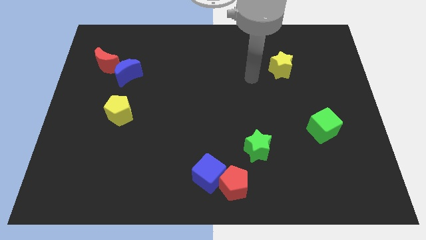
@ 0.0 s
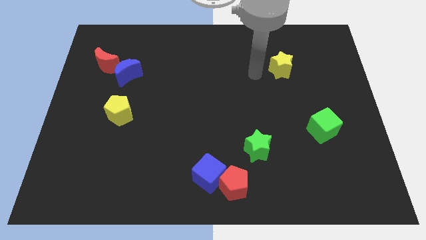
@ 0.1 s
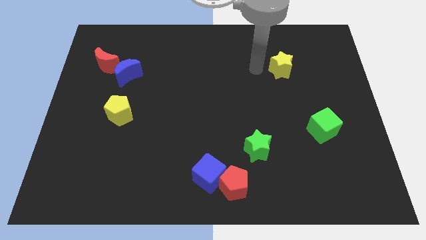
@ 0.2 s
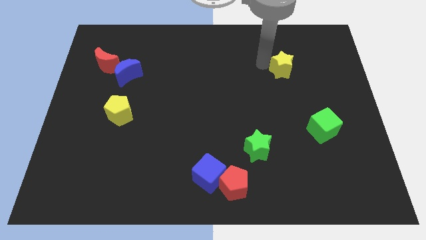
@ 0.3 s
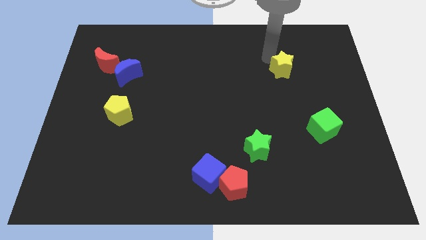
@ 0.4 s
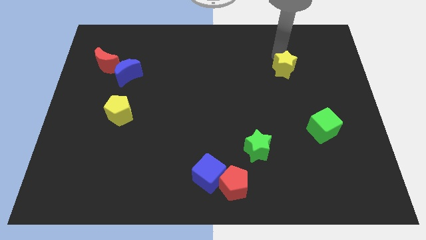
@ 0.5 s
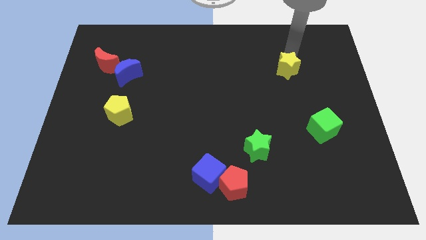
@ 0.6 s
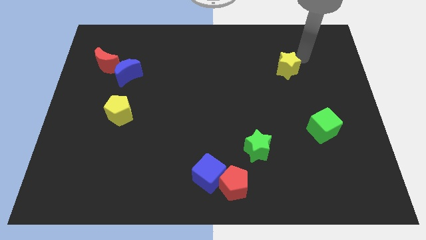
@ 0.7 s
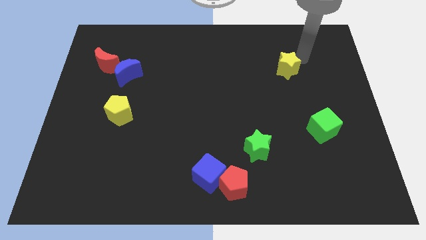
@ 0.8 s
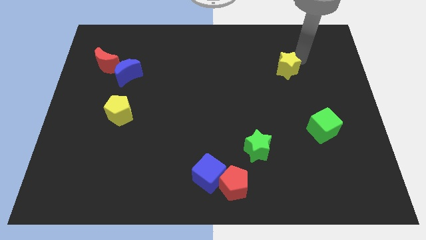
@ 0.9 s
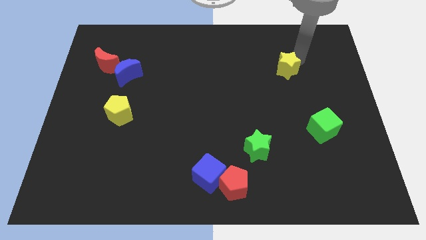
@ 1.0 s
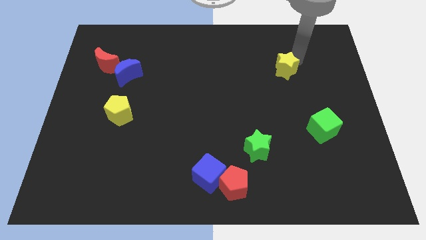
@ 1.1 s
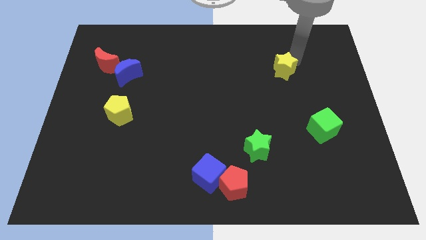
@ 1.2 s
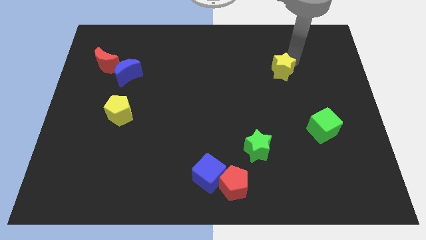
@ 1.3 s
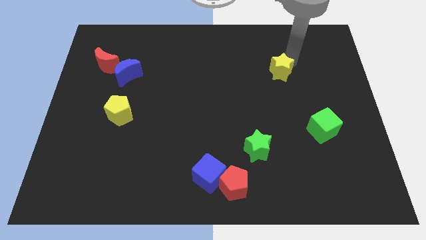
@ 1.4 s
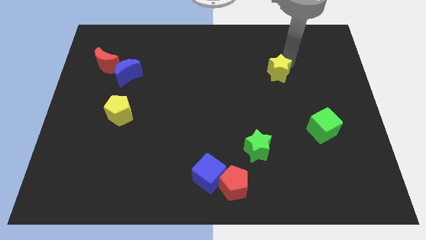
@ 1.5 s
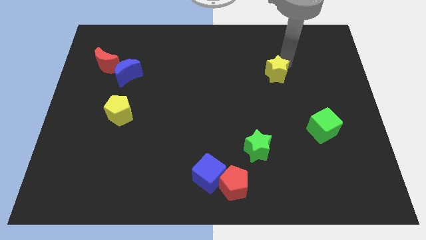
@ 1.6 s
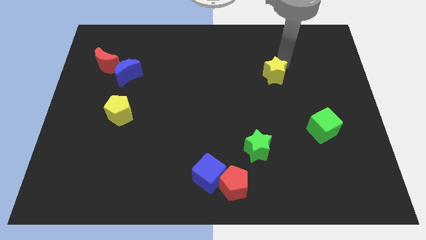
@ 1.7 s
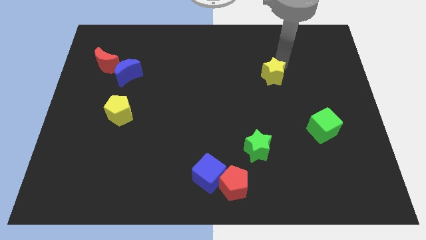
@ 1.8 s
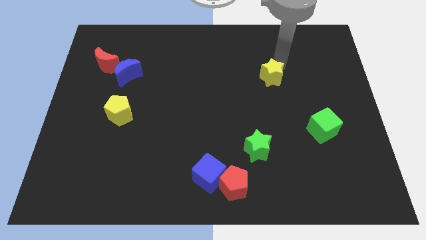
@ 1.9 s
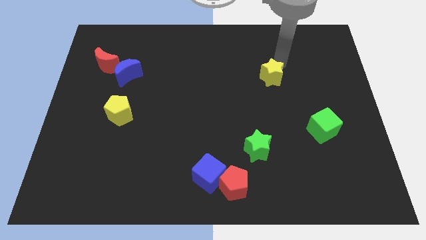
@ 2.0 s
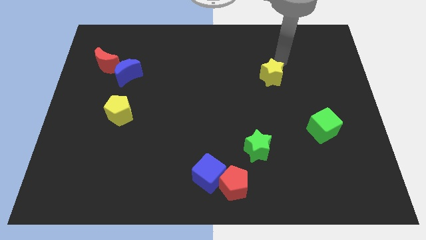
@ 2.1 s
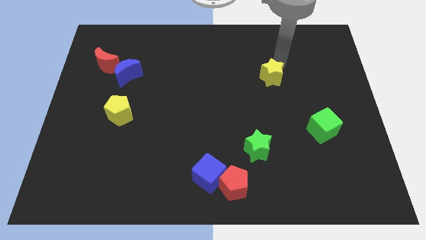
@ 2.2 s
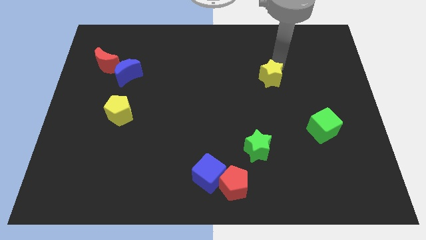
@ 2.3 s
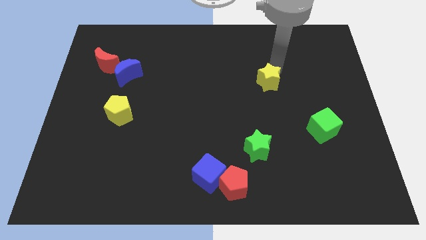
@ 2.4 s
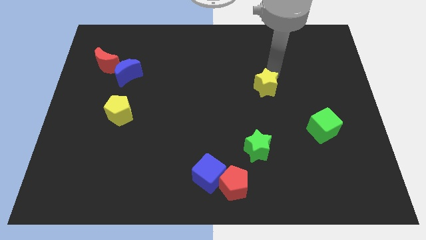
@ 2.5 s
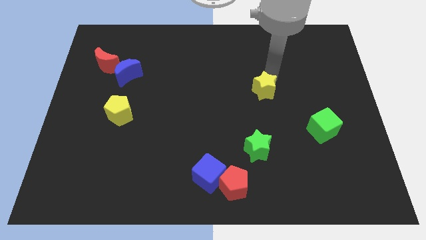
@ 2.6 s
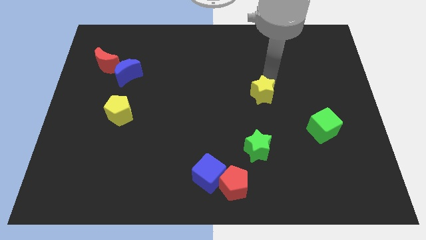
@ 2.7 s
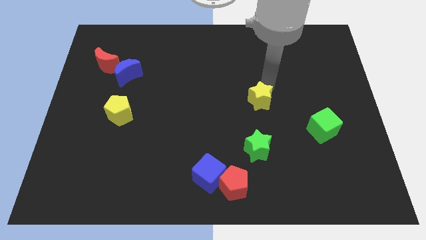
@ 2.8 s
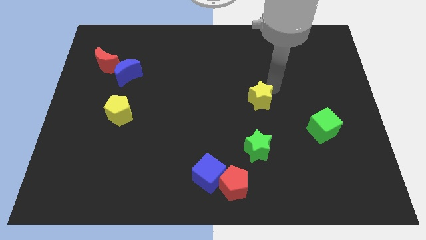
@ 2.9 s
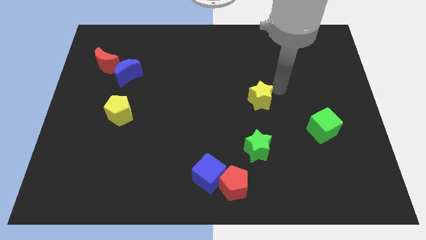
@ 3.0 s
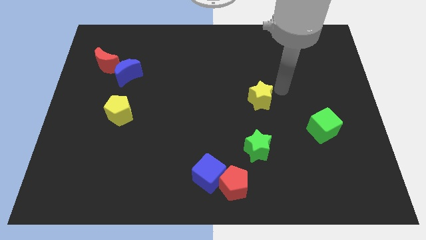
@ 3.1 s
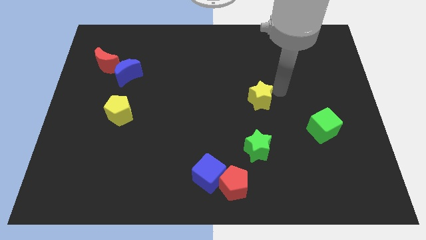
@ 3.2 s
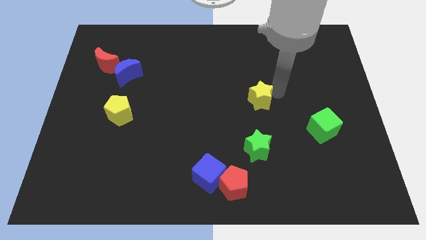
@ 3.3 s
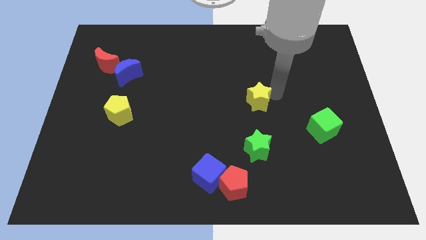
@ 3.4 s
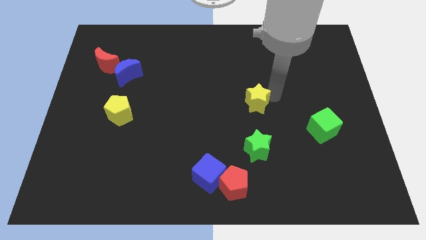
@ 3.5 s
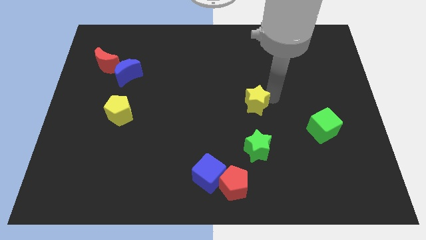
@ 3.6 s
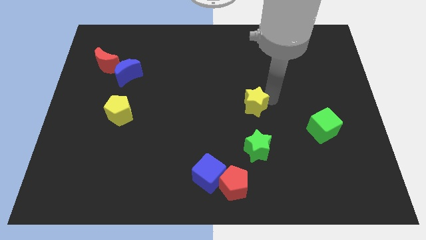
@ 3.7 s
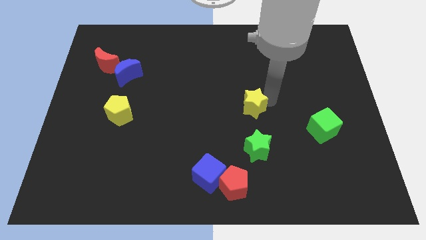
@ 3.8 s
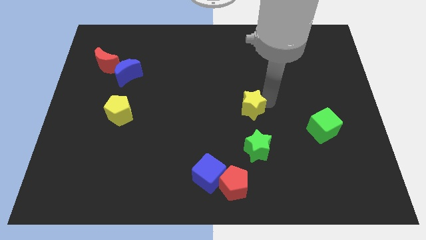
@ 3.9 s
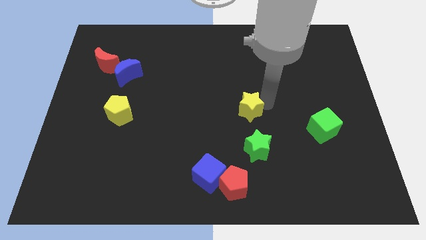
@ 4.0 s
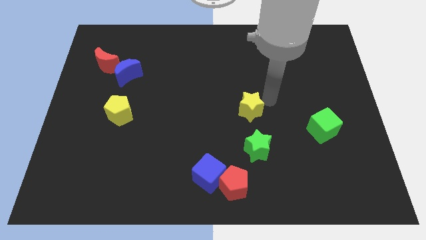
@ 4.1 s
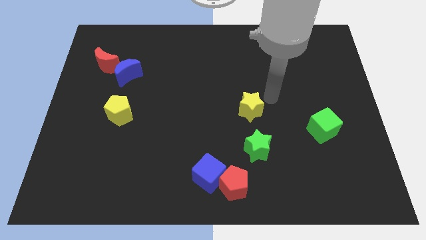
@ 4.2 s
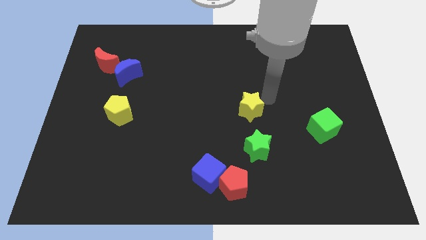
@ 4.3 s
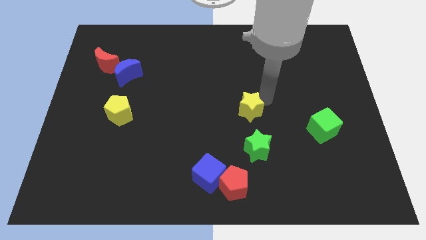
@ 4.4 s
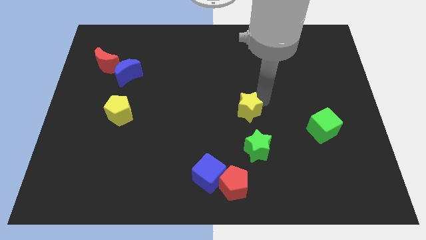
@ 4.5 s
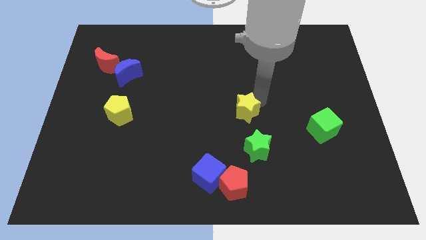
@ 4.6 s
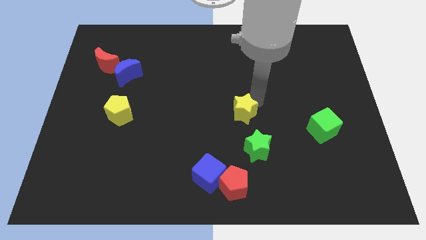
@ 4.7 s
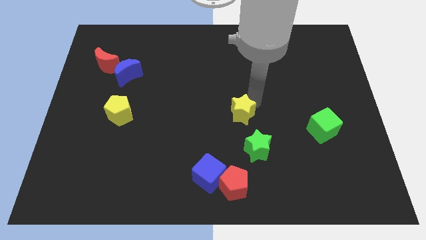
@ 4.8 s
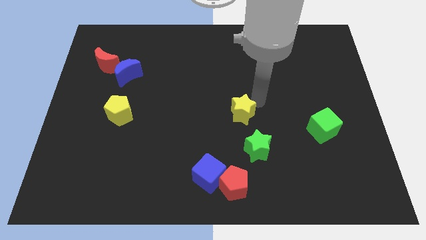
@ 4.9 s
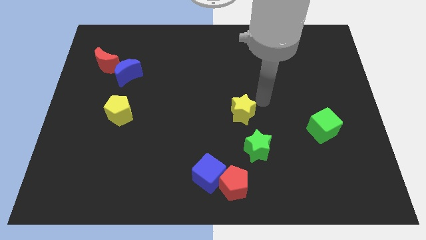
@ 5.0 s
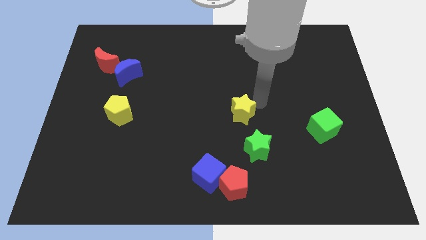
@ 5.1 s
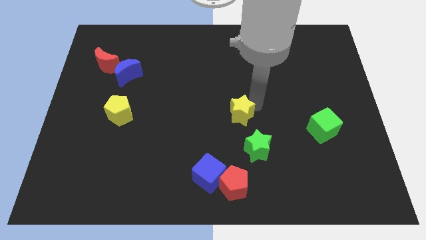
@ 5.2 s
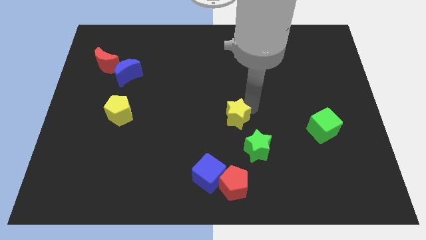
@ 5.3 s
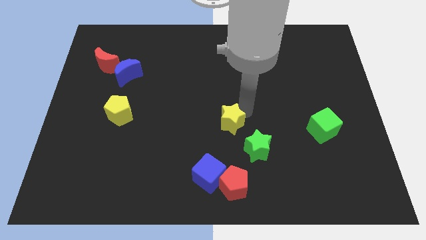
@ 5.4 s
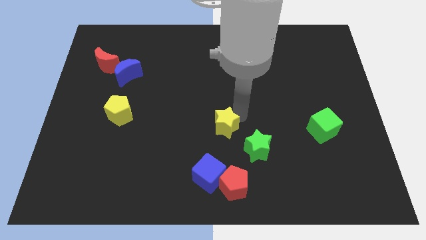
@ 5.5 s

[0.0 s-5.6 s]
move the yellow star above the blue cube

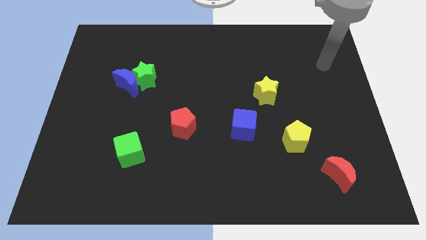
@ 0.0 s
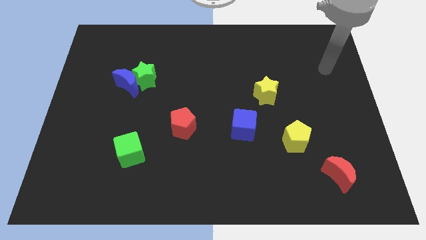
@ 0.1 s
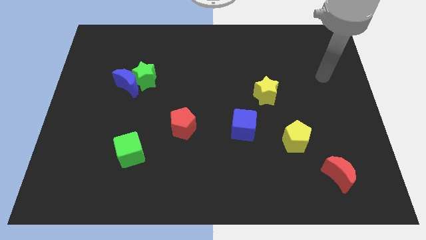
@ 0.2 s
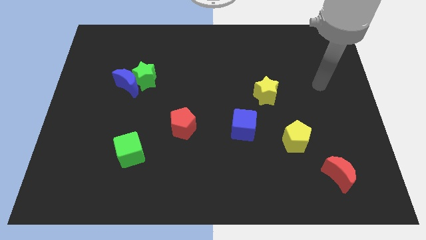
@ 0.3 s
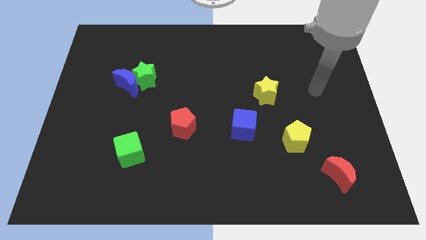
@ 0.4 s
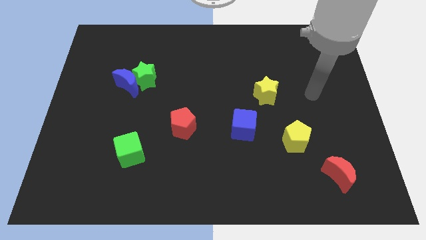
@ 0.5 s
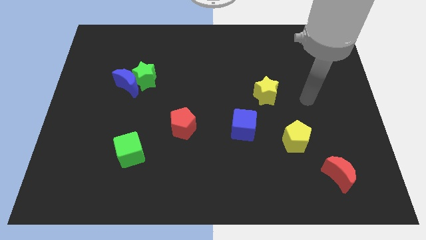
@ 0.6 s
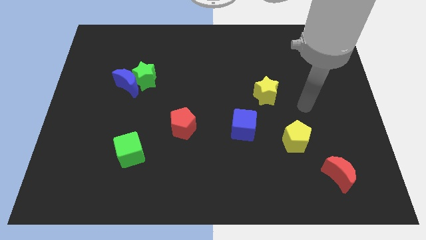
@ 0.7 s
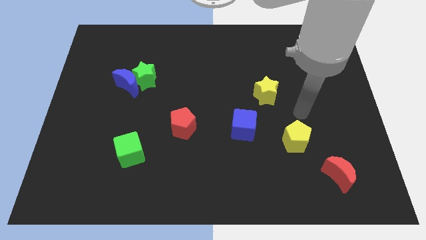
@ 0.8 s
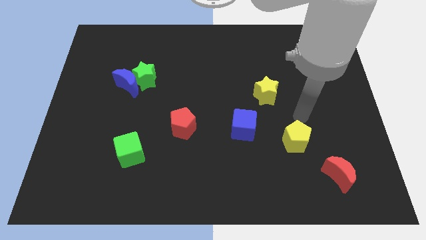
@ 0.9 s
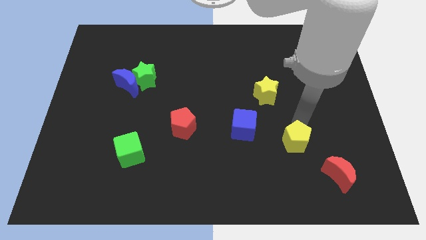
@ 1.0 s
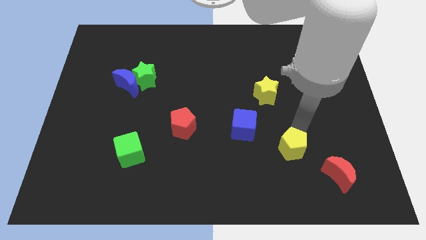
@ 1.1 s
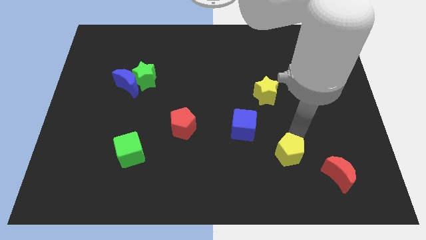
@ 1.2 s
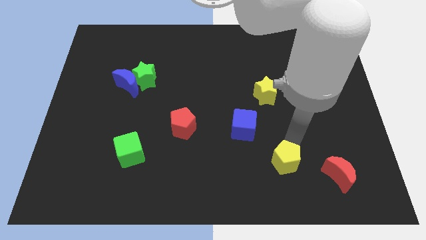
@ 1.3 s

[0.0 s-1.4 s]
push the yellow pentagon to the left side of the red moon

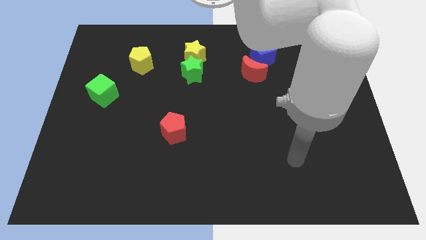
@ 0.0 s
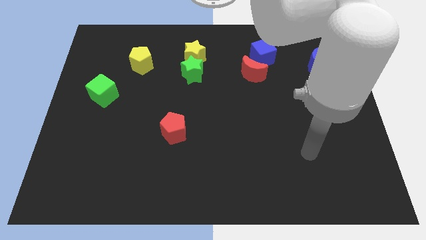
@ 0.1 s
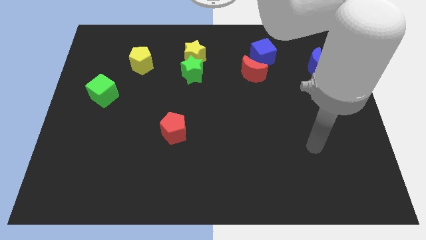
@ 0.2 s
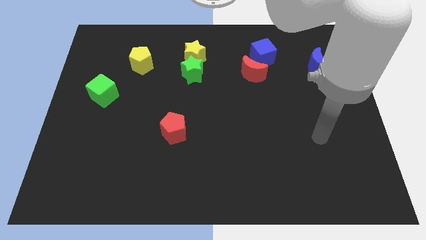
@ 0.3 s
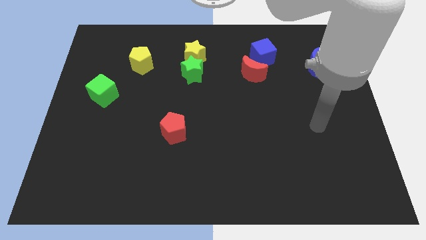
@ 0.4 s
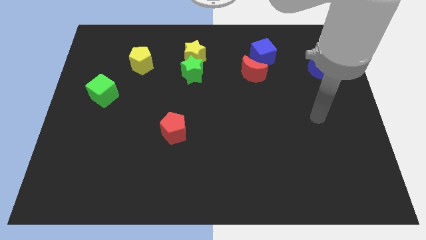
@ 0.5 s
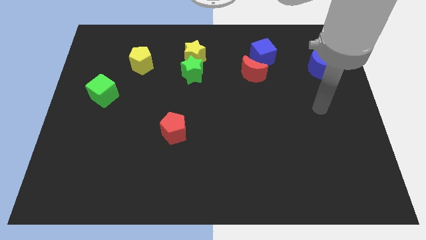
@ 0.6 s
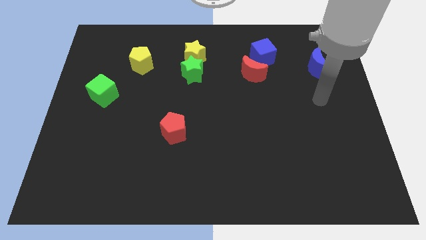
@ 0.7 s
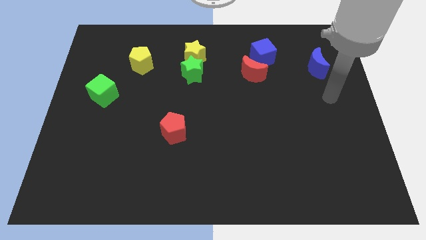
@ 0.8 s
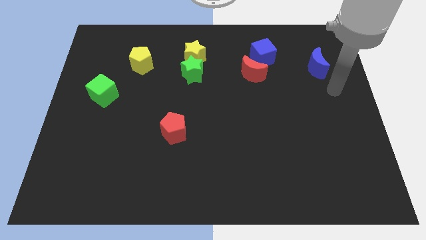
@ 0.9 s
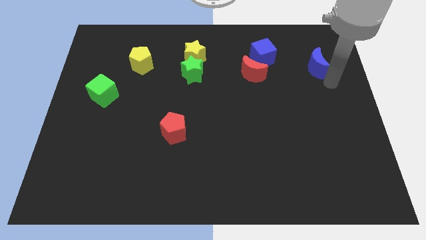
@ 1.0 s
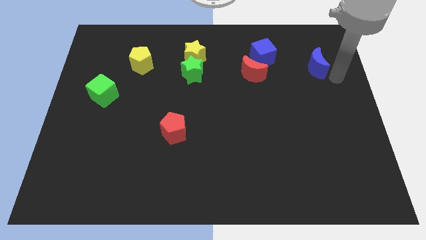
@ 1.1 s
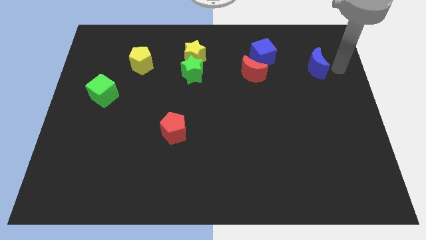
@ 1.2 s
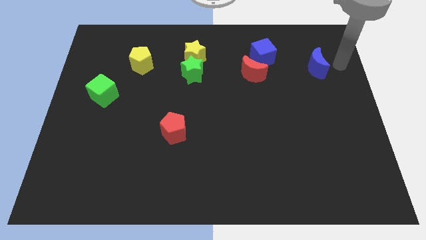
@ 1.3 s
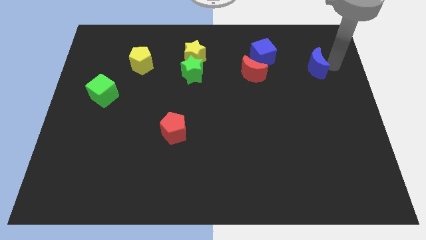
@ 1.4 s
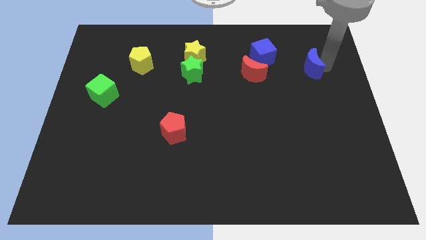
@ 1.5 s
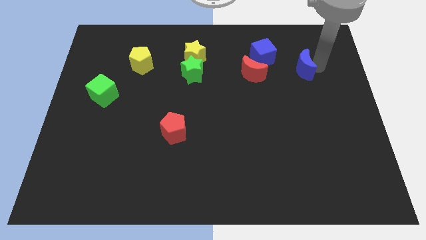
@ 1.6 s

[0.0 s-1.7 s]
put the blue moon to the bottom right of the blue cube
